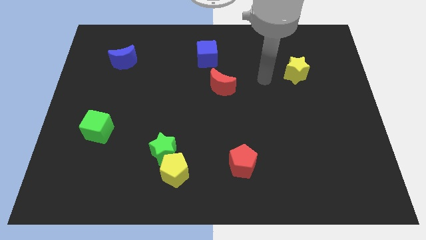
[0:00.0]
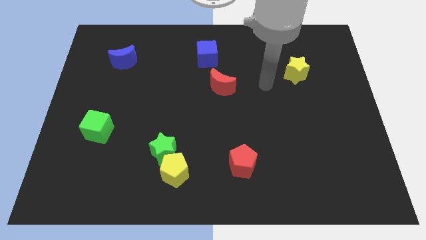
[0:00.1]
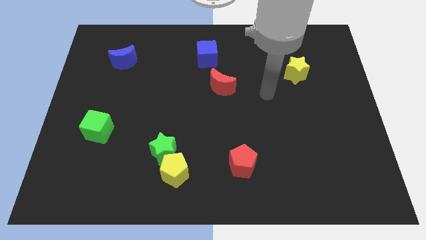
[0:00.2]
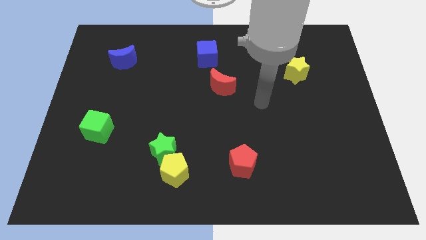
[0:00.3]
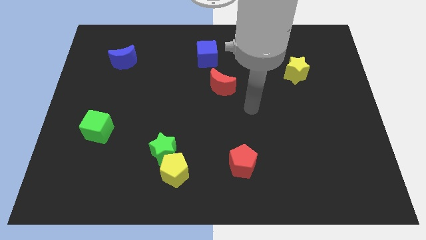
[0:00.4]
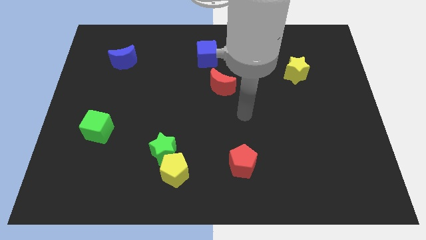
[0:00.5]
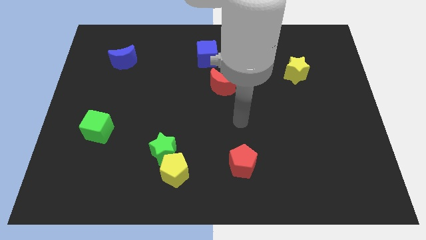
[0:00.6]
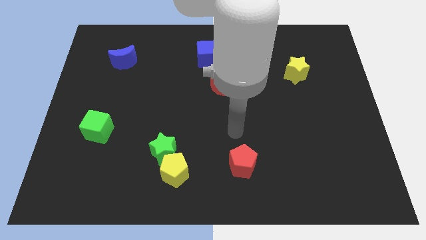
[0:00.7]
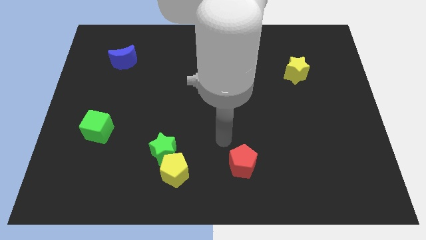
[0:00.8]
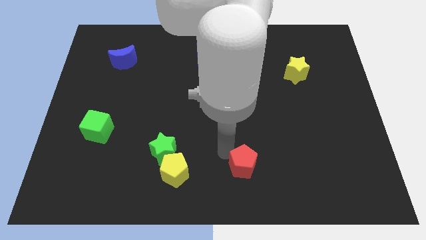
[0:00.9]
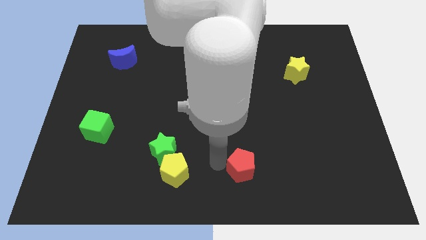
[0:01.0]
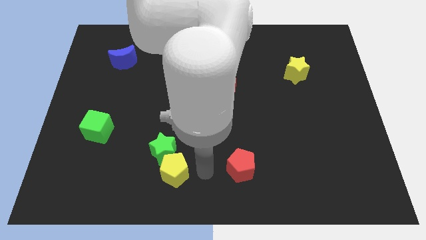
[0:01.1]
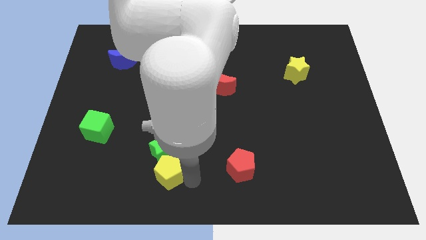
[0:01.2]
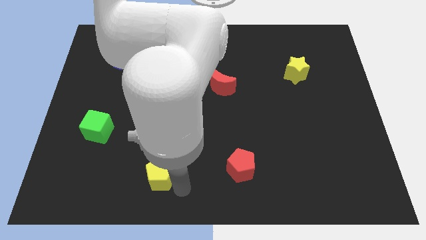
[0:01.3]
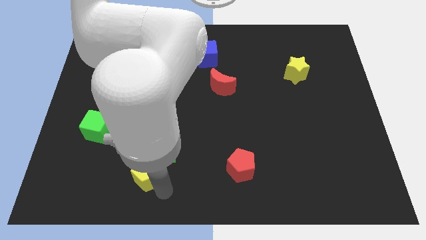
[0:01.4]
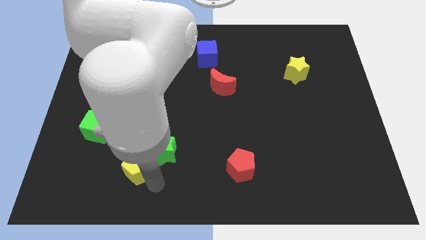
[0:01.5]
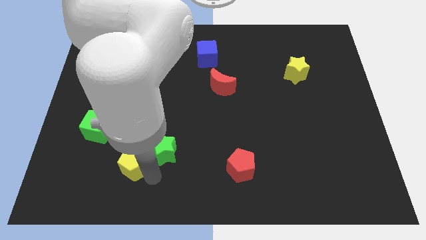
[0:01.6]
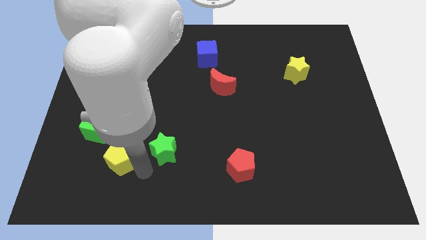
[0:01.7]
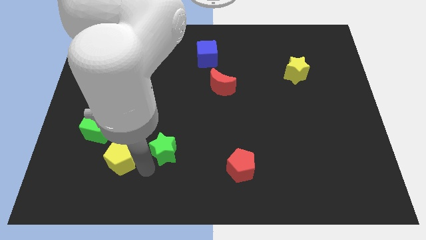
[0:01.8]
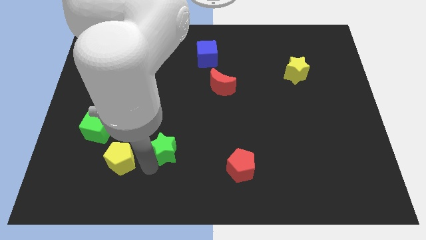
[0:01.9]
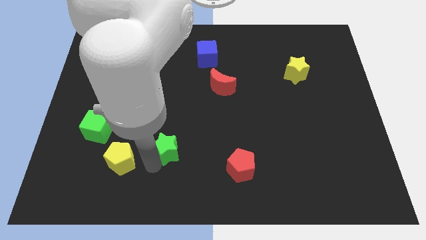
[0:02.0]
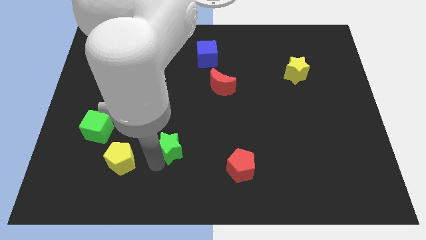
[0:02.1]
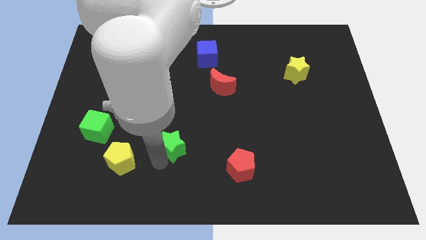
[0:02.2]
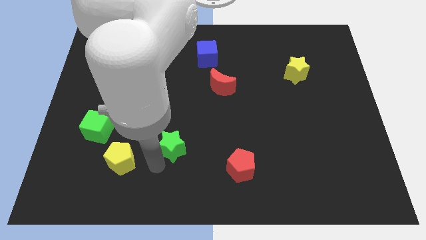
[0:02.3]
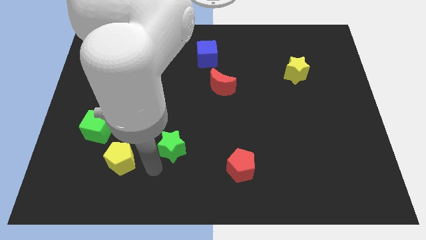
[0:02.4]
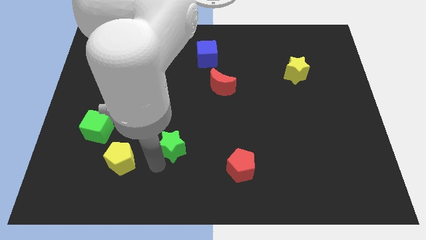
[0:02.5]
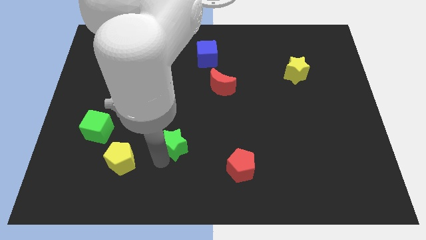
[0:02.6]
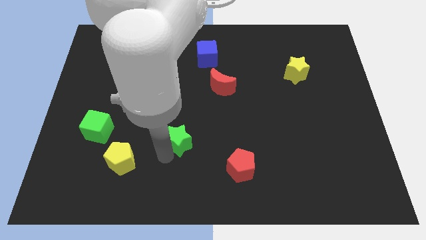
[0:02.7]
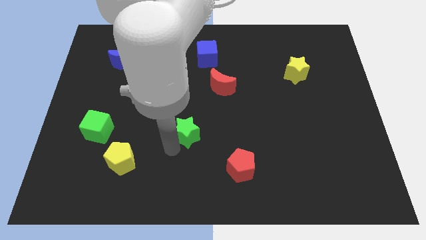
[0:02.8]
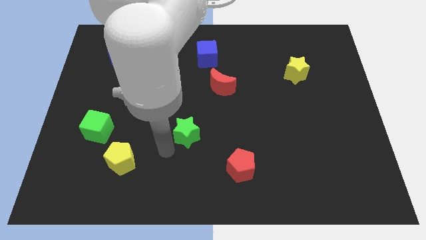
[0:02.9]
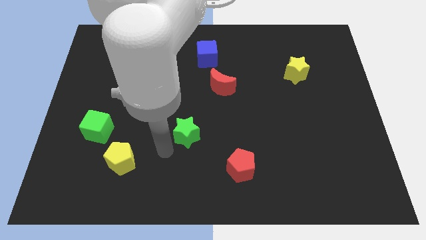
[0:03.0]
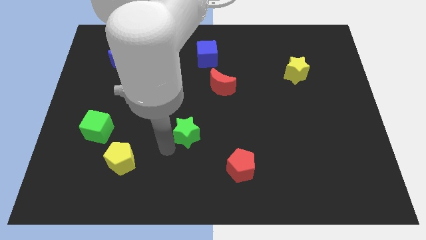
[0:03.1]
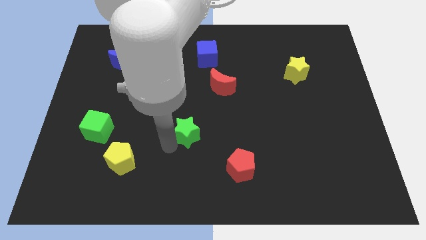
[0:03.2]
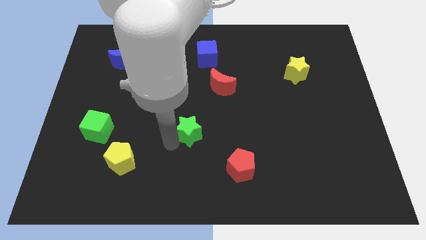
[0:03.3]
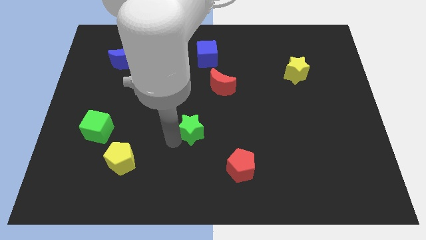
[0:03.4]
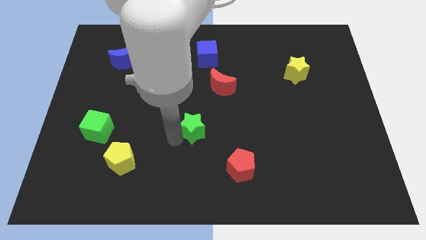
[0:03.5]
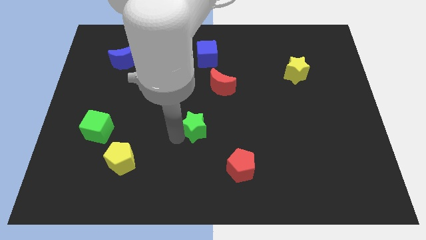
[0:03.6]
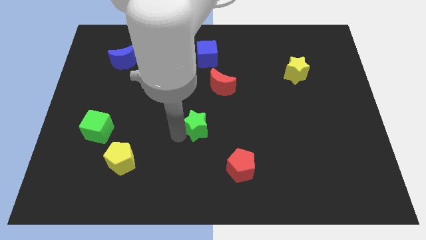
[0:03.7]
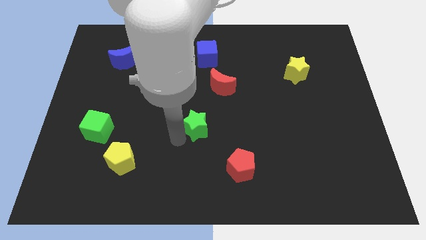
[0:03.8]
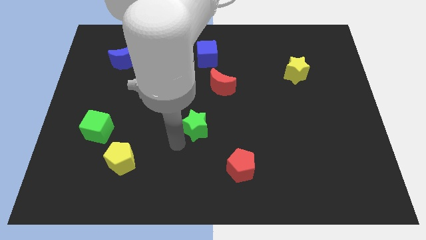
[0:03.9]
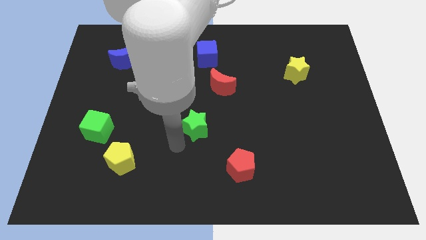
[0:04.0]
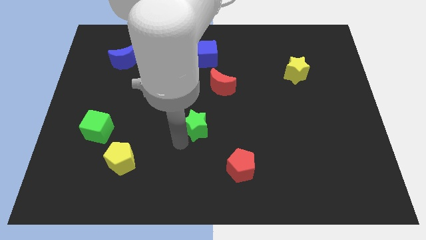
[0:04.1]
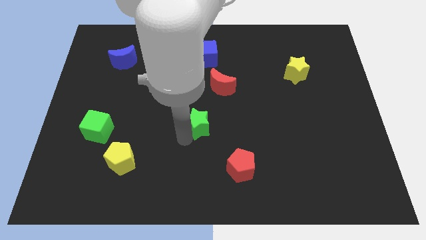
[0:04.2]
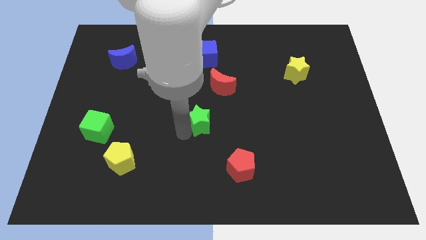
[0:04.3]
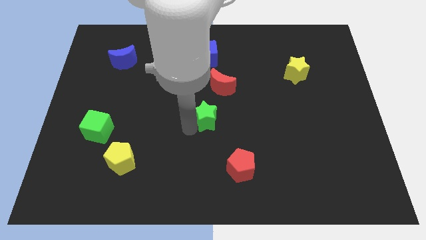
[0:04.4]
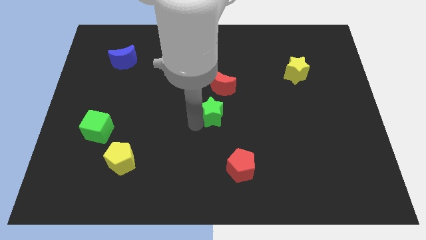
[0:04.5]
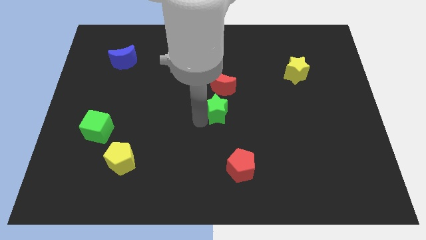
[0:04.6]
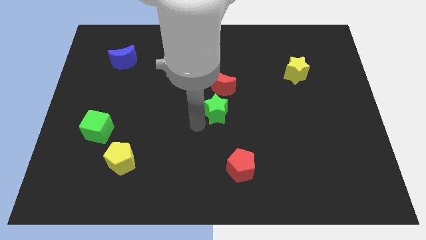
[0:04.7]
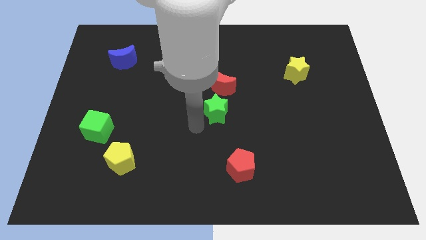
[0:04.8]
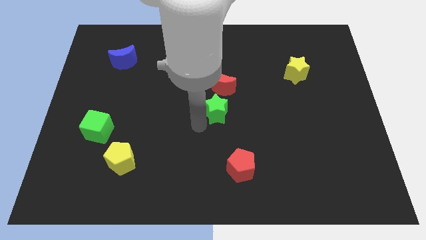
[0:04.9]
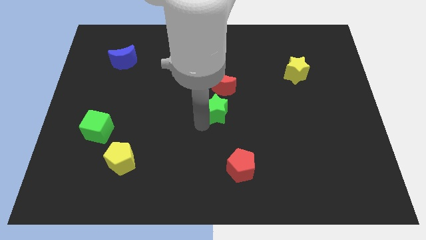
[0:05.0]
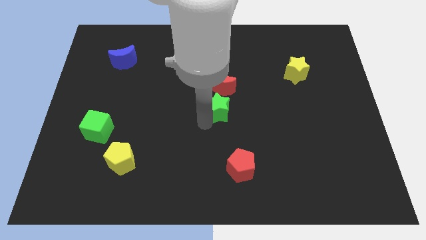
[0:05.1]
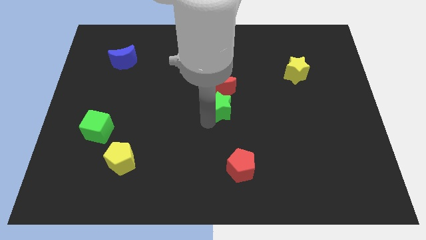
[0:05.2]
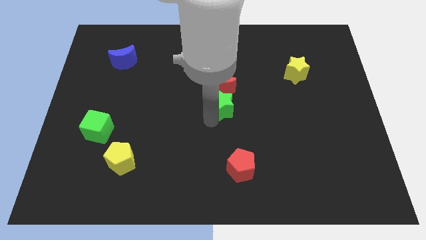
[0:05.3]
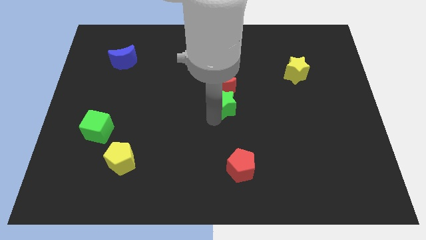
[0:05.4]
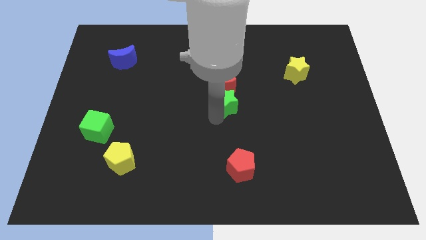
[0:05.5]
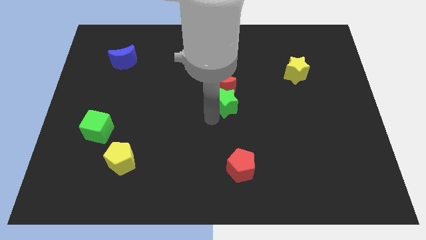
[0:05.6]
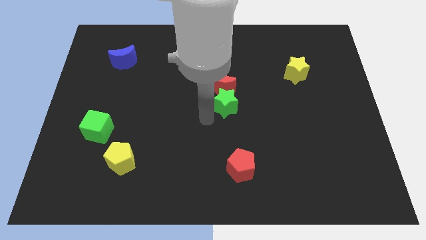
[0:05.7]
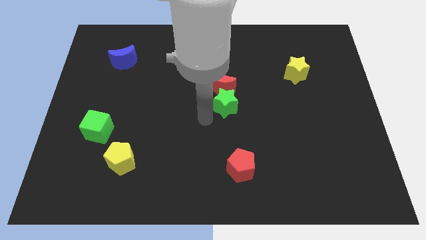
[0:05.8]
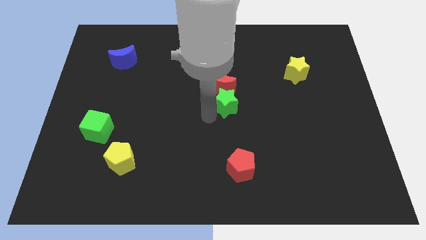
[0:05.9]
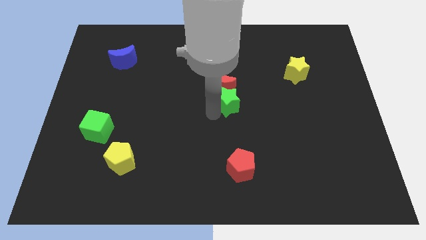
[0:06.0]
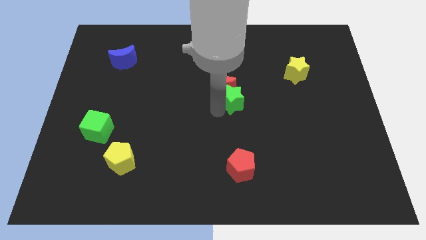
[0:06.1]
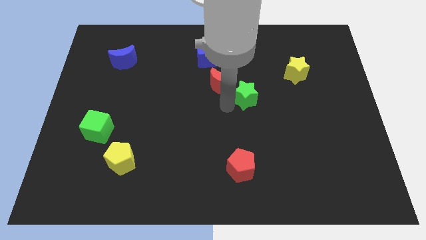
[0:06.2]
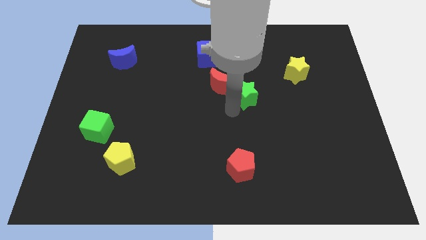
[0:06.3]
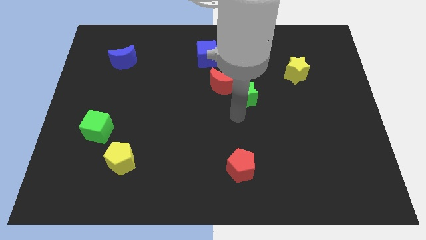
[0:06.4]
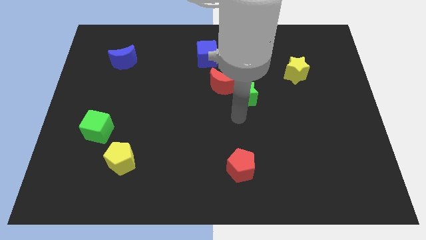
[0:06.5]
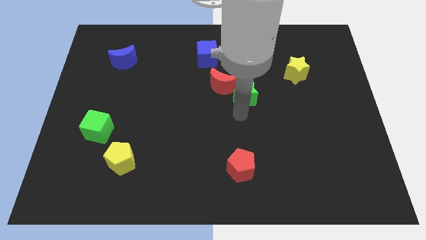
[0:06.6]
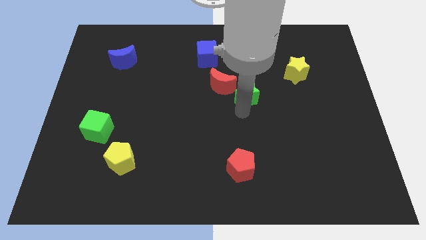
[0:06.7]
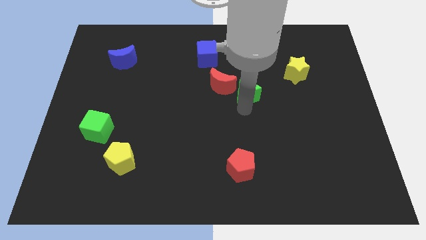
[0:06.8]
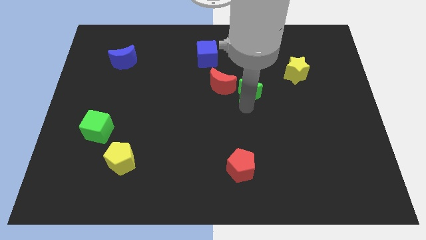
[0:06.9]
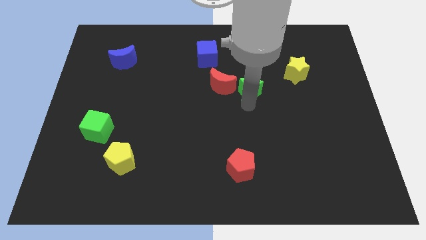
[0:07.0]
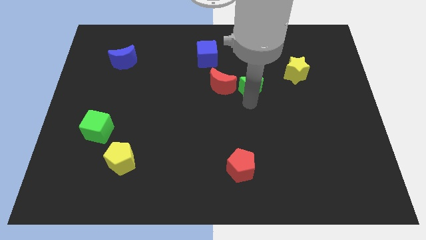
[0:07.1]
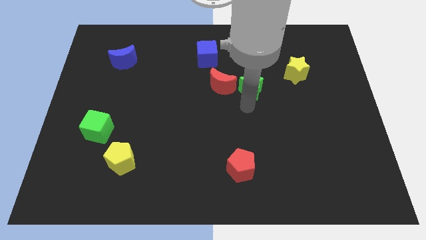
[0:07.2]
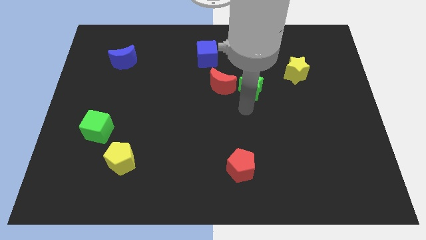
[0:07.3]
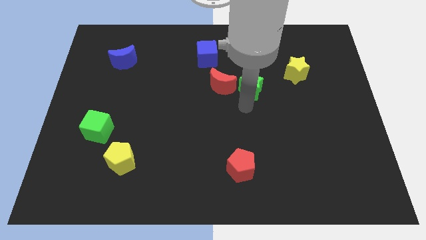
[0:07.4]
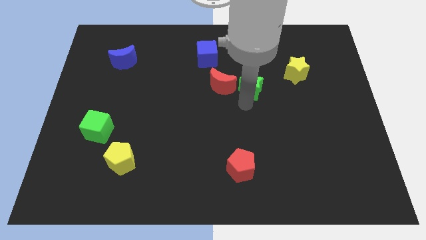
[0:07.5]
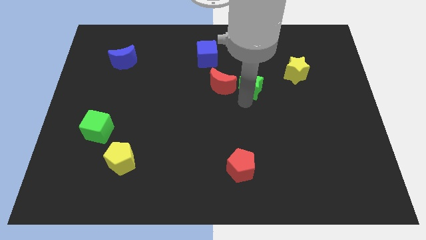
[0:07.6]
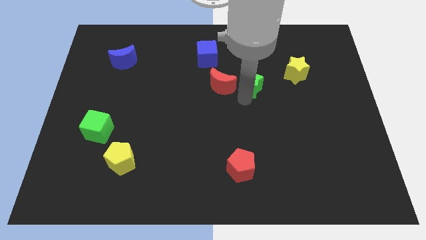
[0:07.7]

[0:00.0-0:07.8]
move the green star to the left of the yellow star
